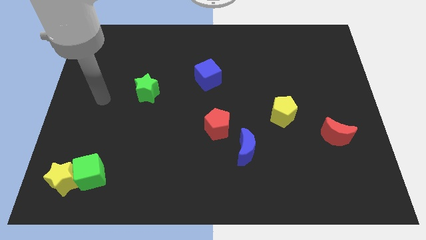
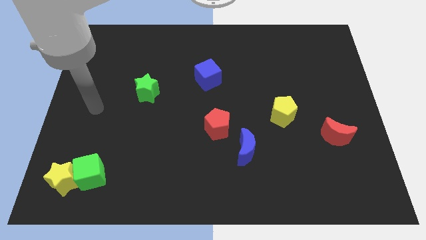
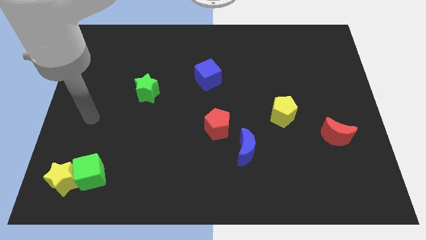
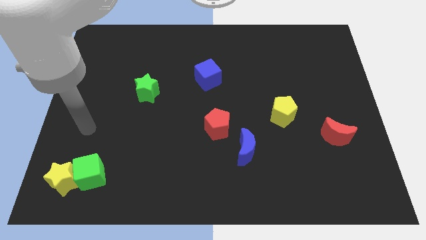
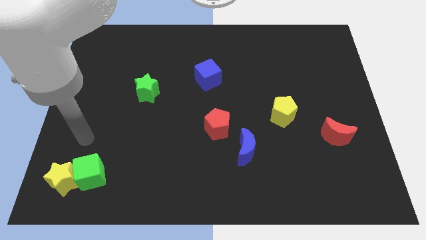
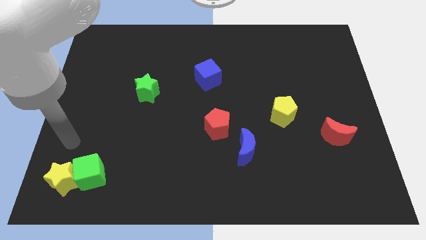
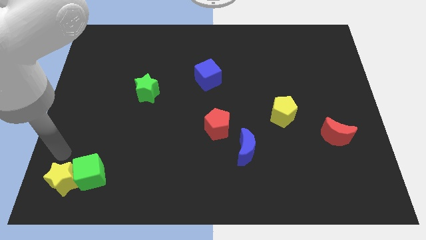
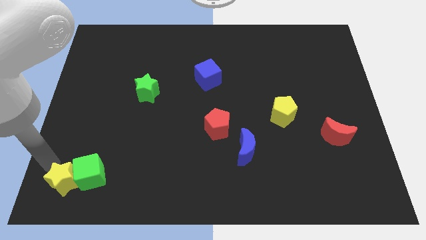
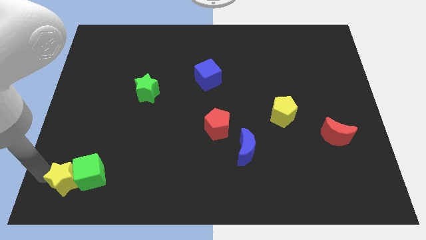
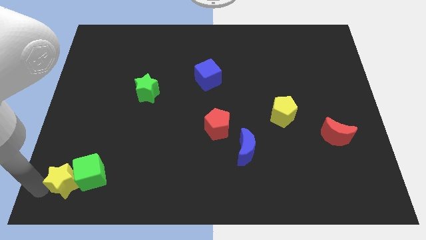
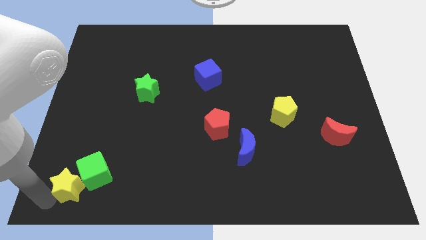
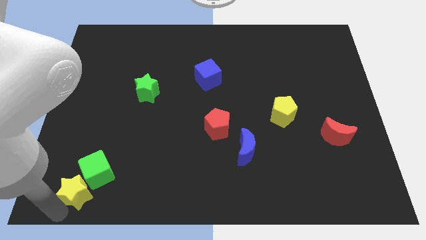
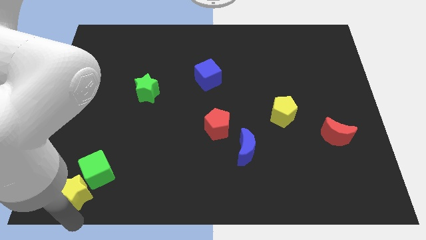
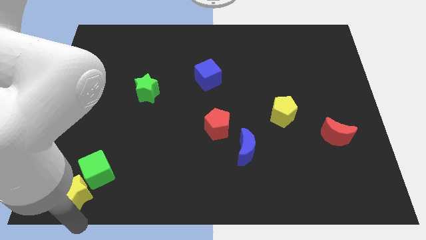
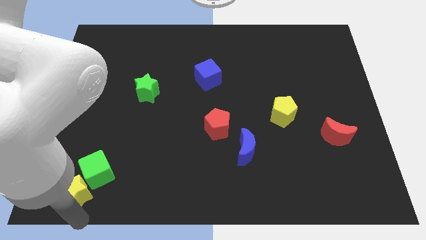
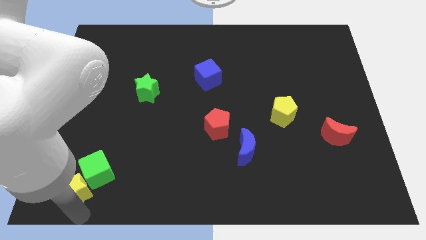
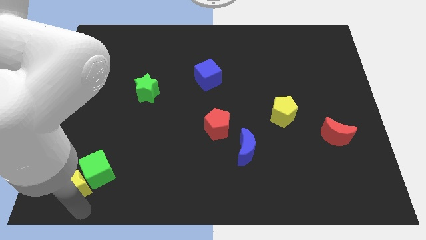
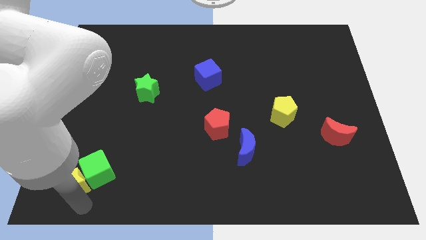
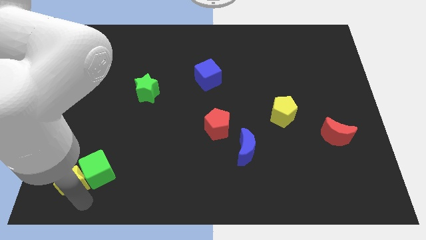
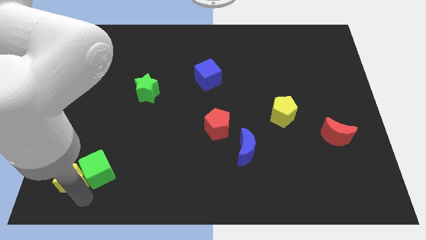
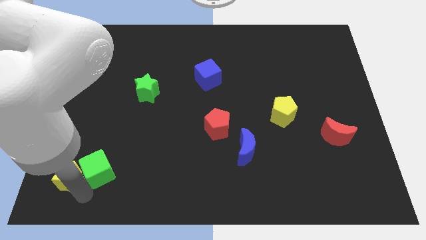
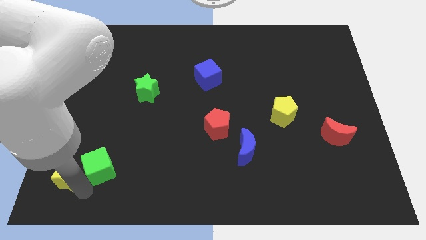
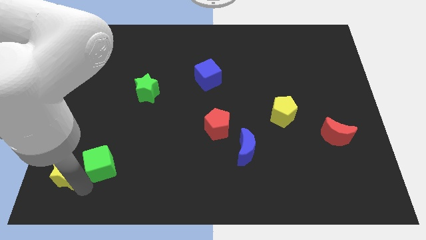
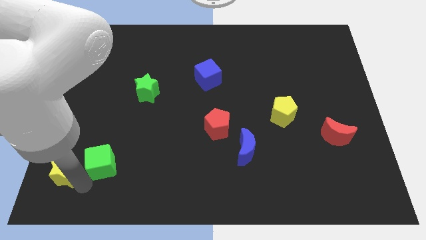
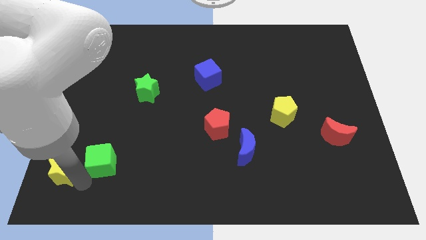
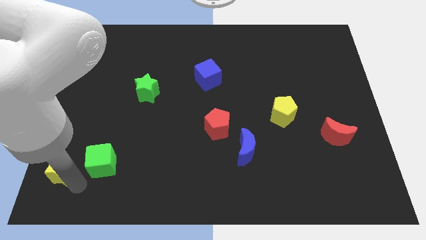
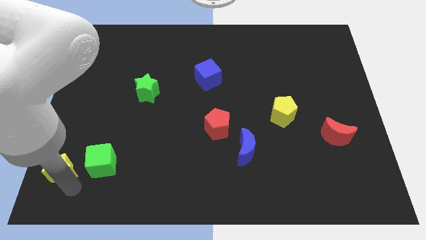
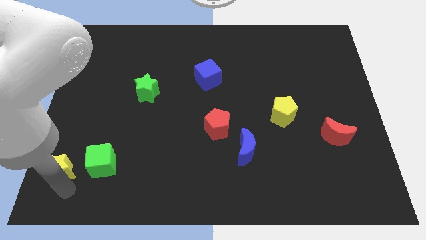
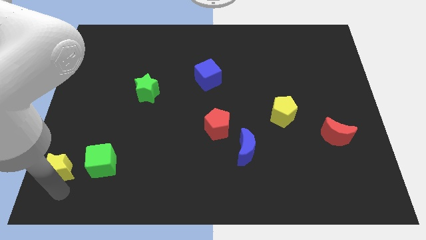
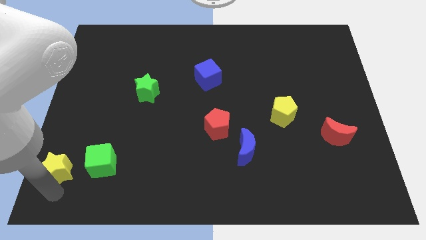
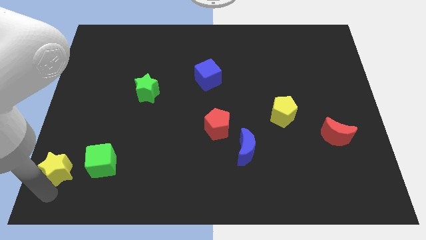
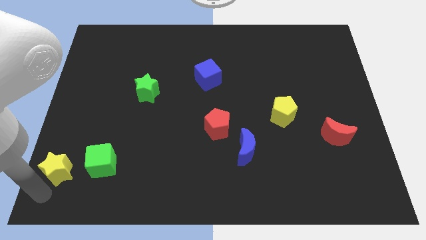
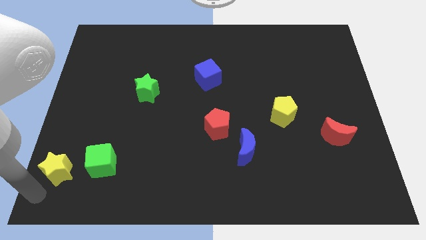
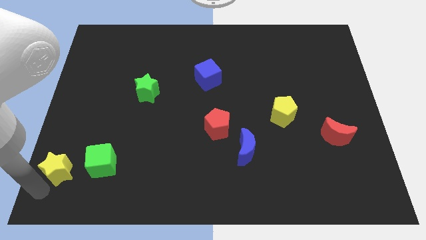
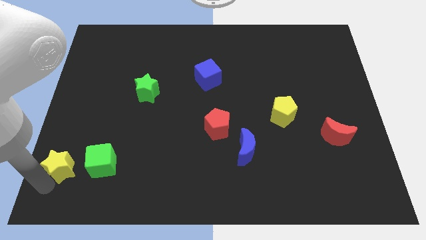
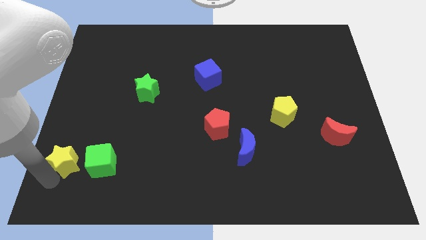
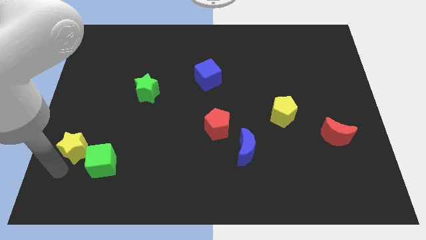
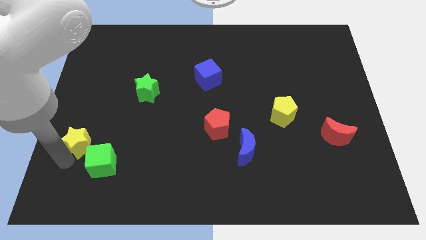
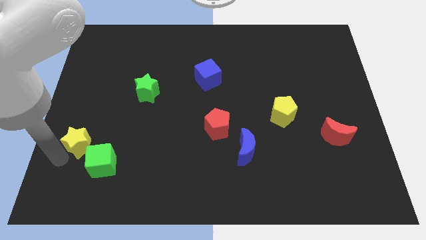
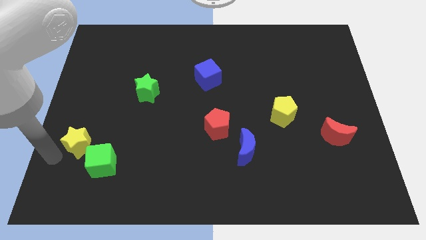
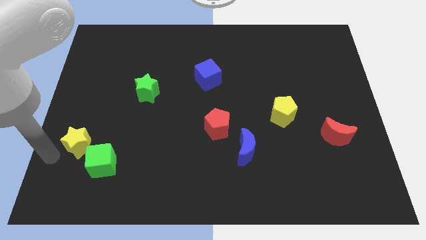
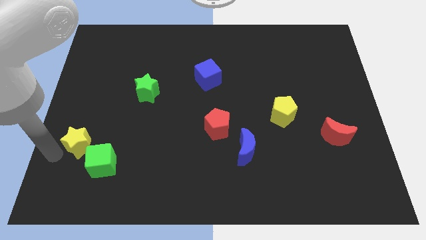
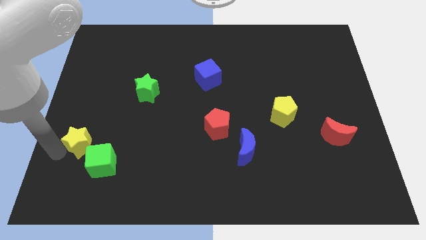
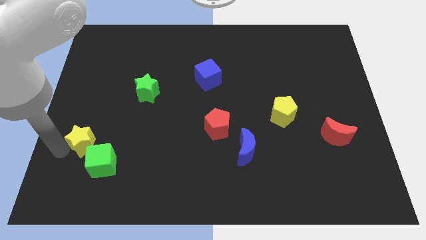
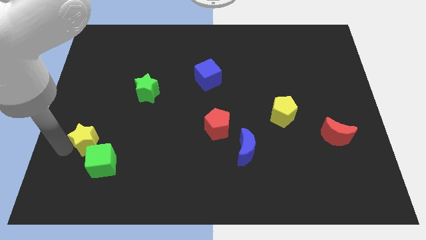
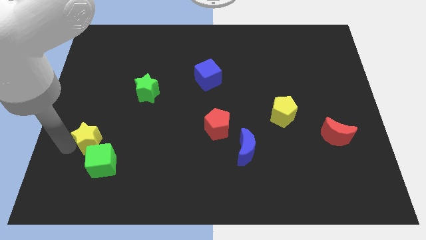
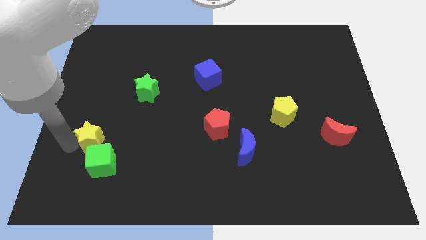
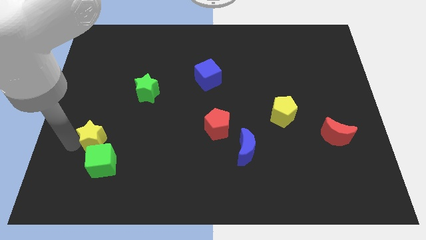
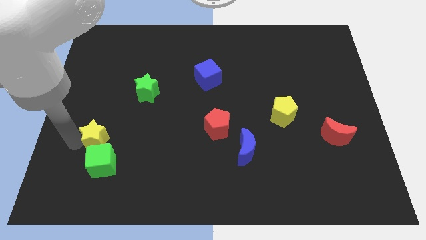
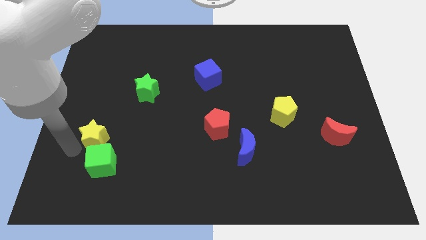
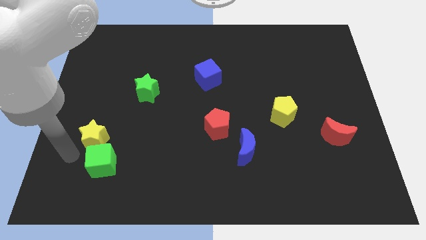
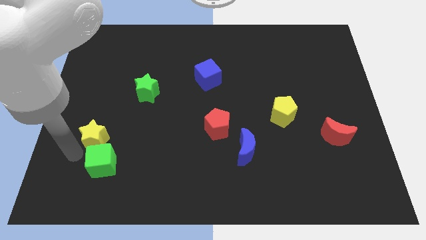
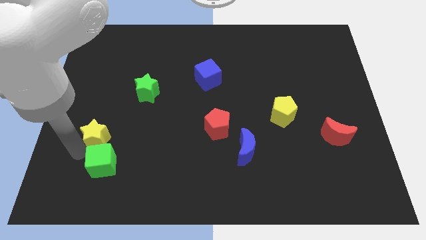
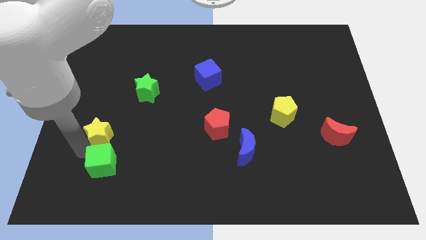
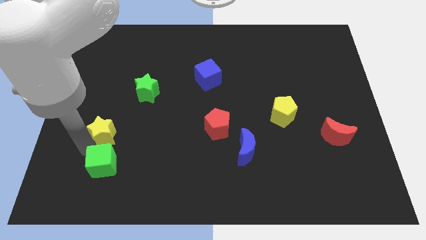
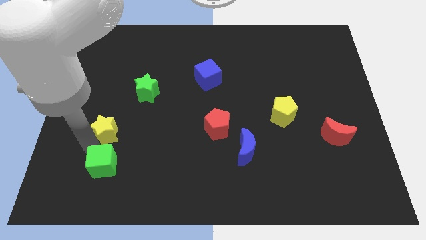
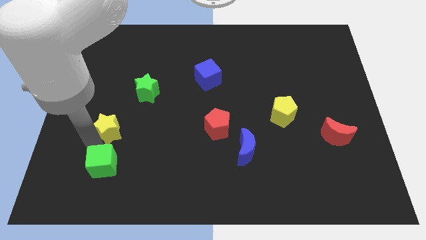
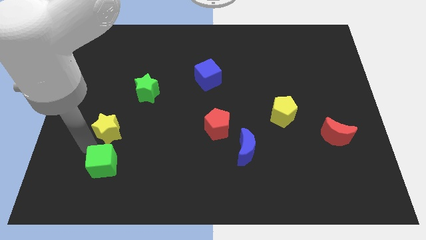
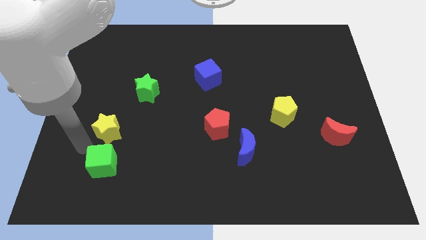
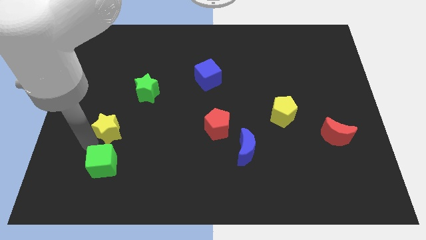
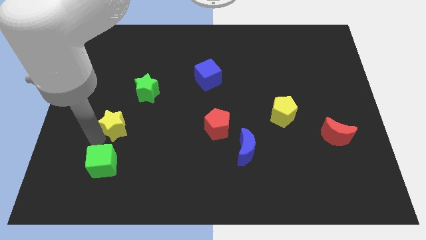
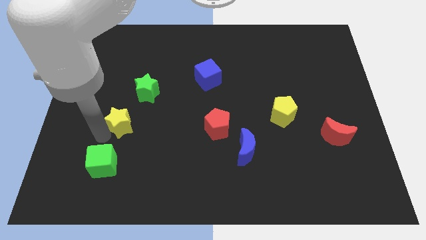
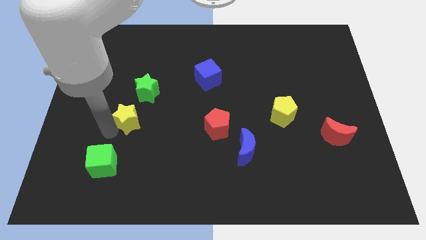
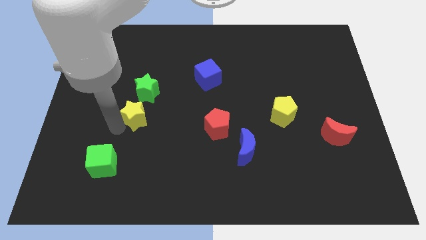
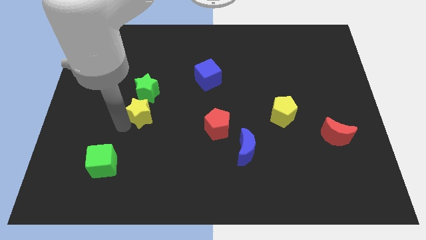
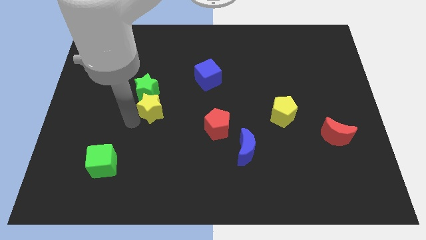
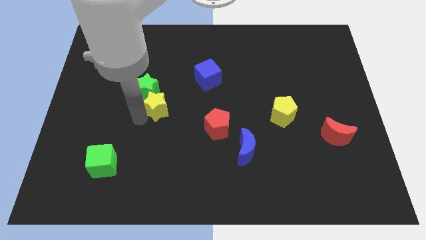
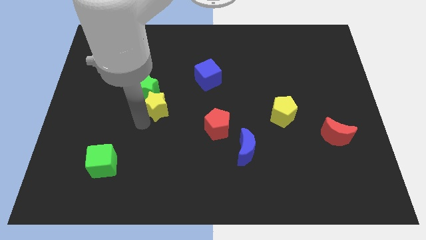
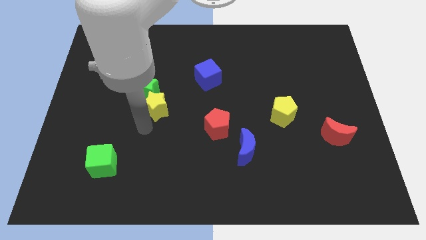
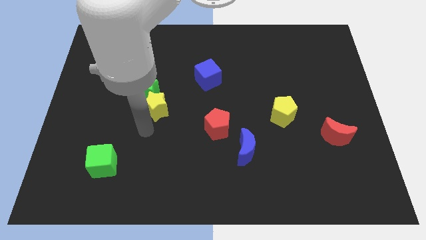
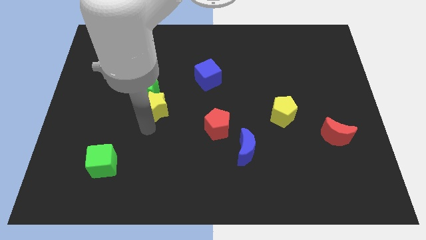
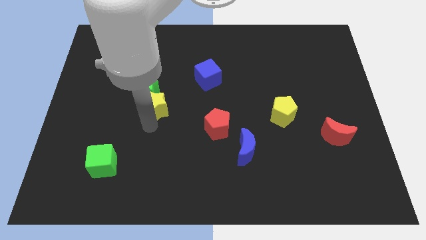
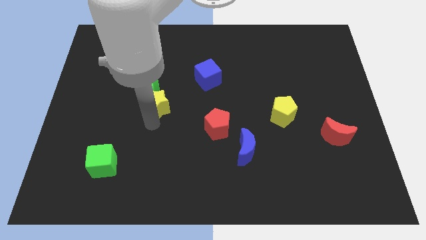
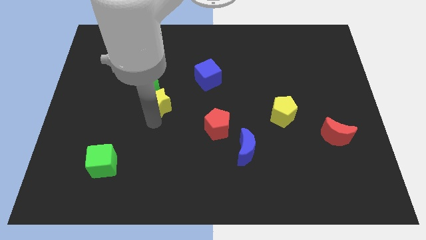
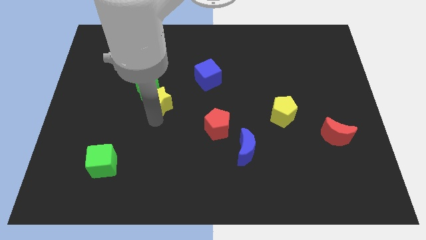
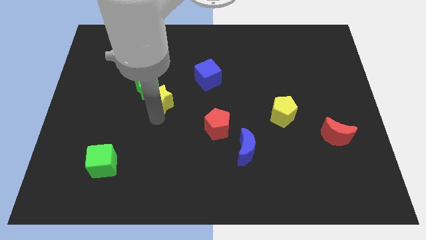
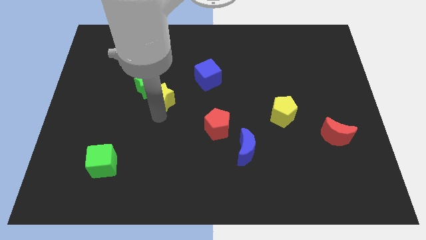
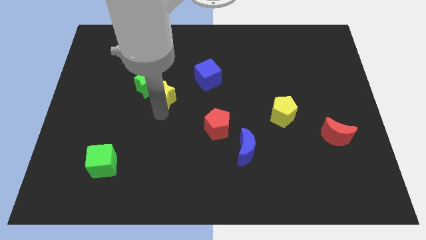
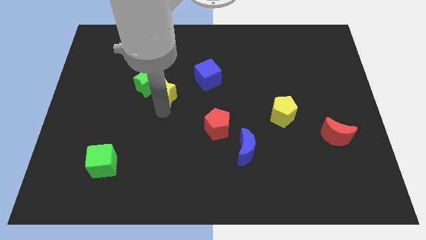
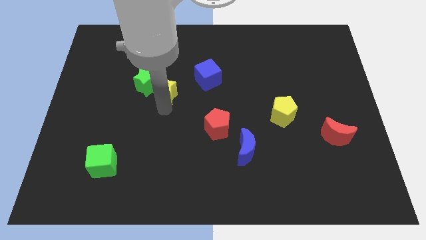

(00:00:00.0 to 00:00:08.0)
move the yellow star to the left side of the blue cube
